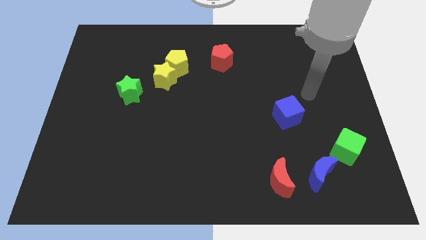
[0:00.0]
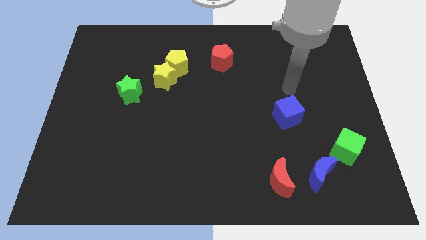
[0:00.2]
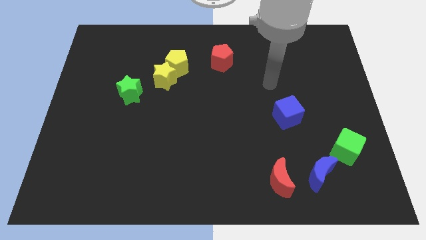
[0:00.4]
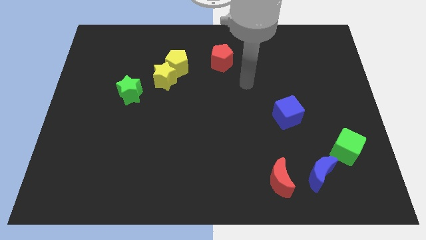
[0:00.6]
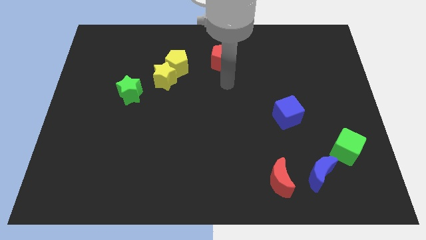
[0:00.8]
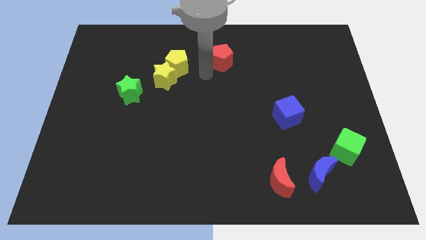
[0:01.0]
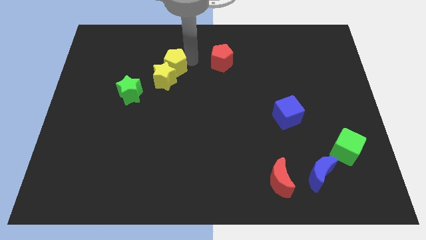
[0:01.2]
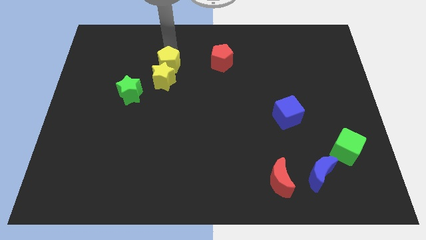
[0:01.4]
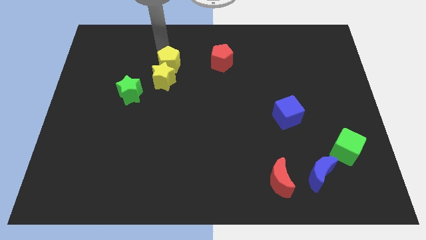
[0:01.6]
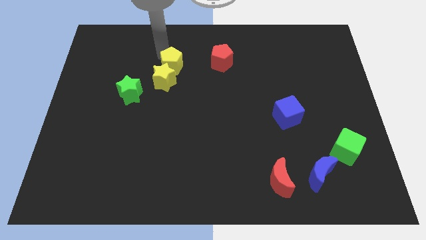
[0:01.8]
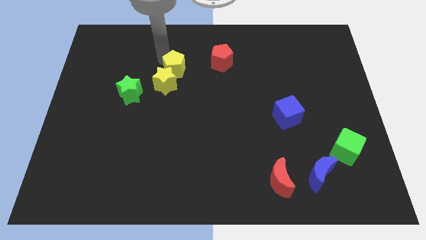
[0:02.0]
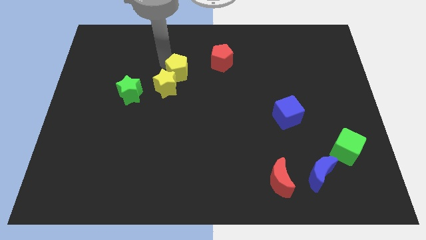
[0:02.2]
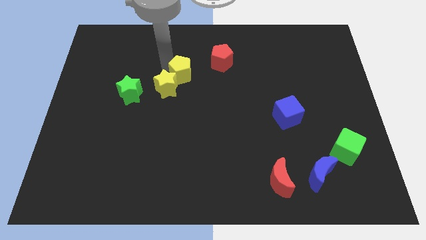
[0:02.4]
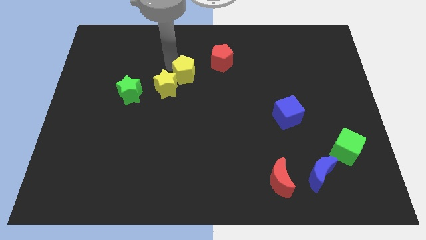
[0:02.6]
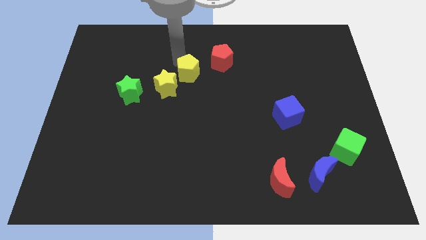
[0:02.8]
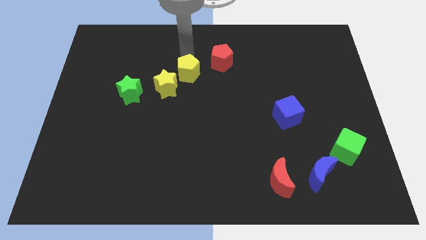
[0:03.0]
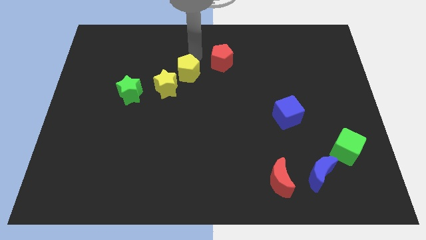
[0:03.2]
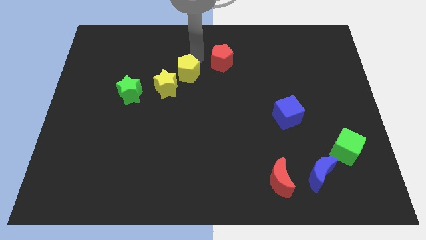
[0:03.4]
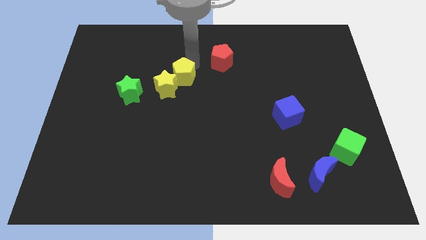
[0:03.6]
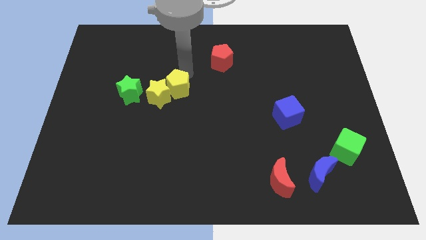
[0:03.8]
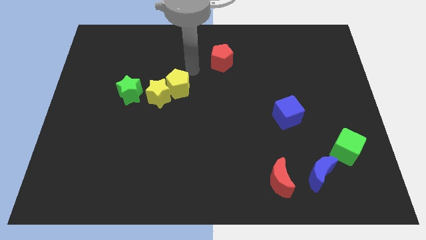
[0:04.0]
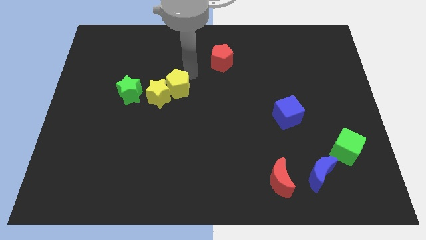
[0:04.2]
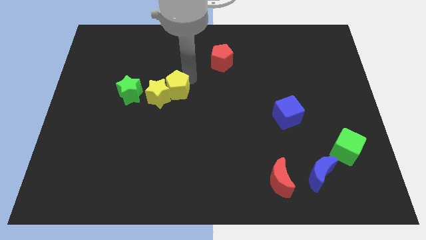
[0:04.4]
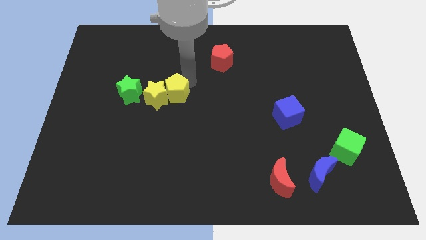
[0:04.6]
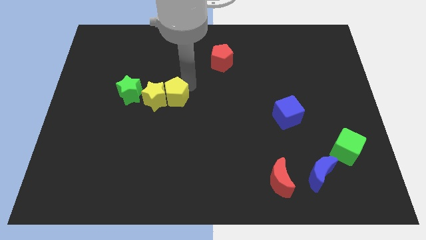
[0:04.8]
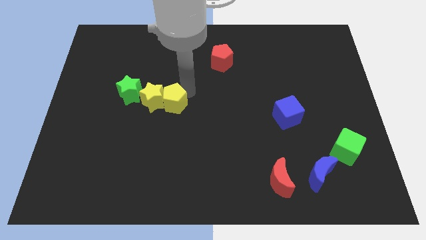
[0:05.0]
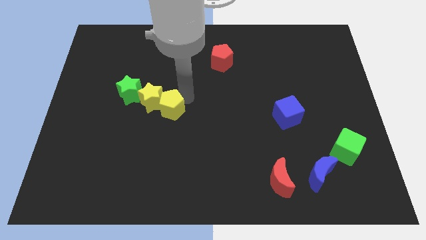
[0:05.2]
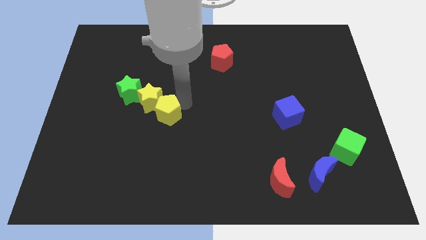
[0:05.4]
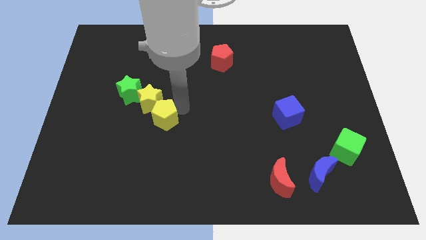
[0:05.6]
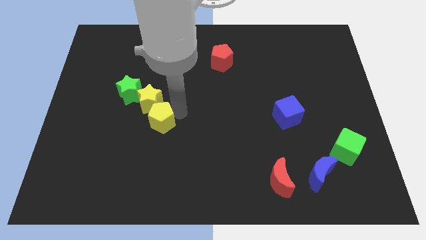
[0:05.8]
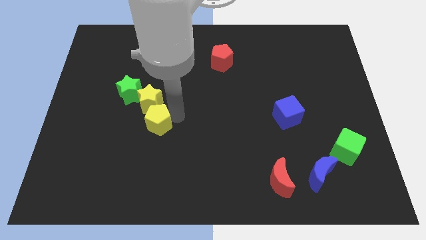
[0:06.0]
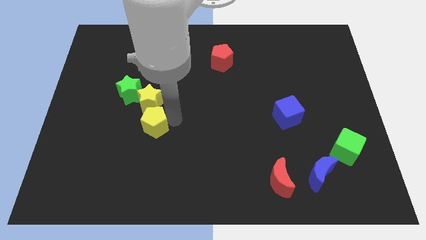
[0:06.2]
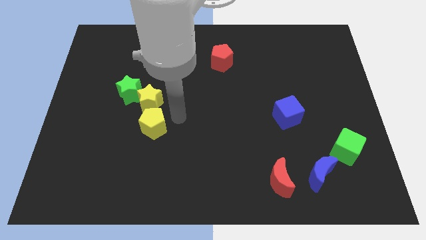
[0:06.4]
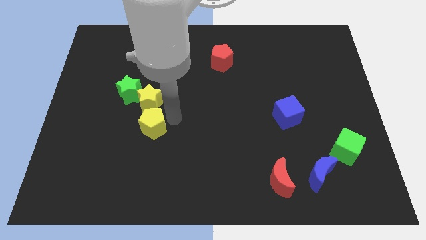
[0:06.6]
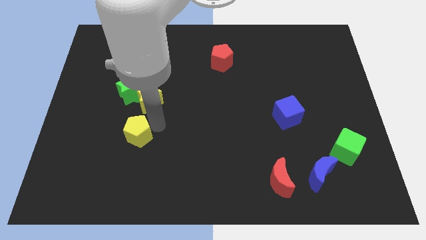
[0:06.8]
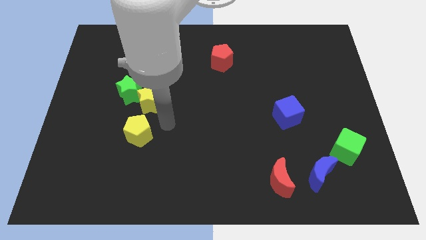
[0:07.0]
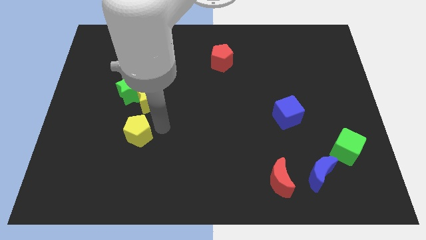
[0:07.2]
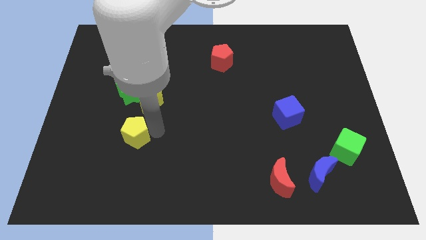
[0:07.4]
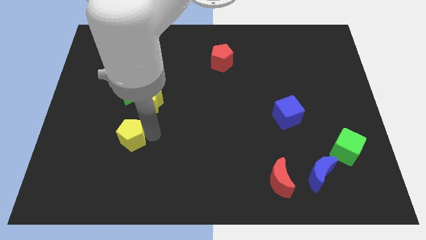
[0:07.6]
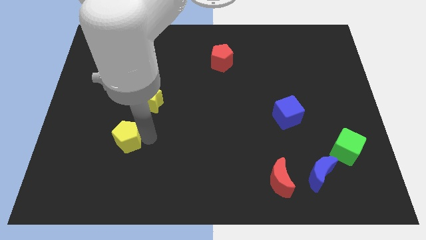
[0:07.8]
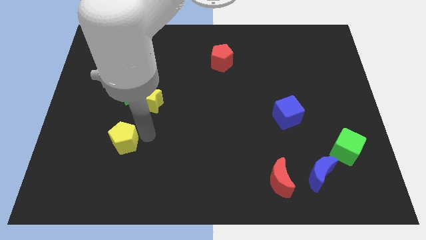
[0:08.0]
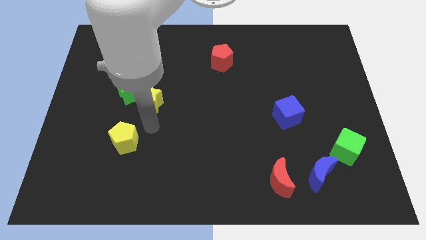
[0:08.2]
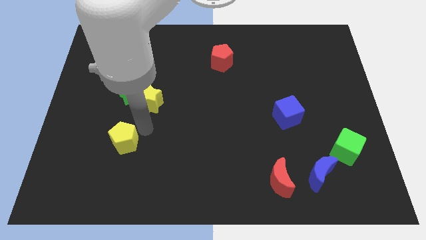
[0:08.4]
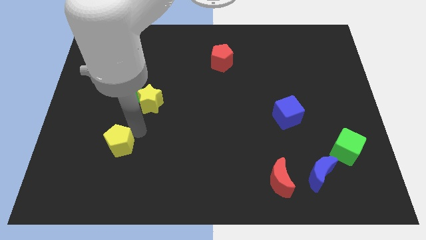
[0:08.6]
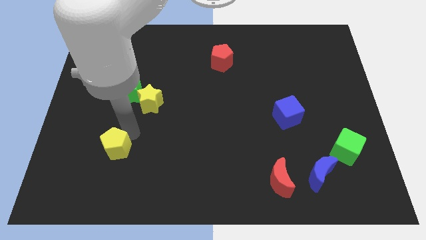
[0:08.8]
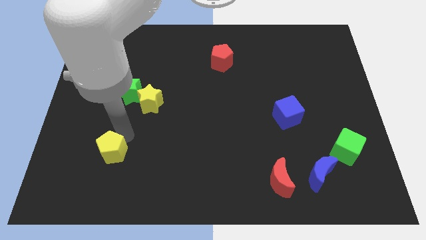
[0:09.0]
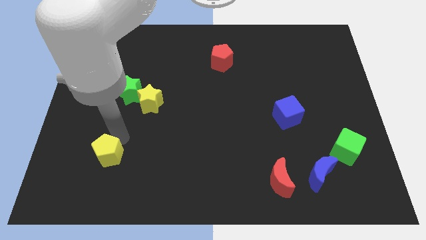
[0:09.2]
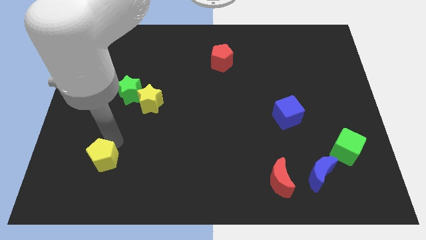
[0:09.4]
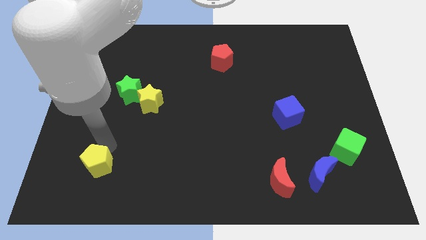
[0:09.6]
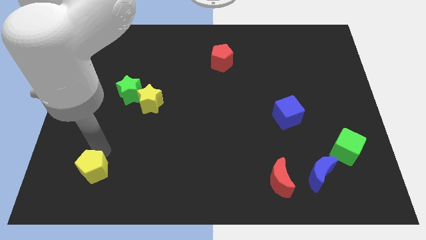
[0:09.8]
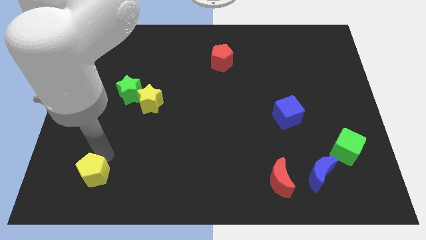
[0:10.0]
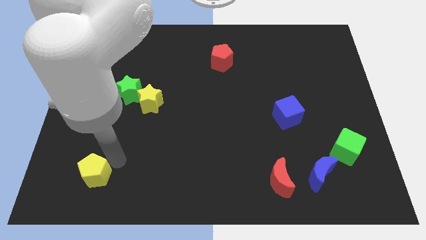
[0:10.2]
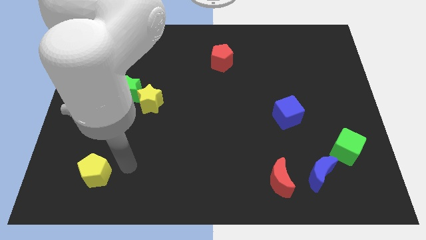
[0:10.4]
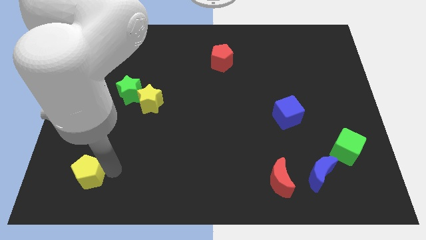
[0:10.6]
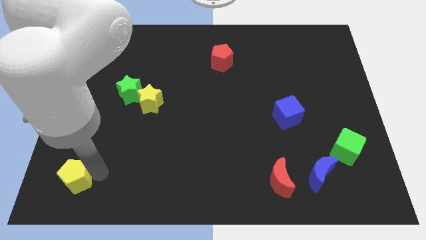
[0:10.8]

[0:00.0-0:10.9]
put the yellow pentagon to the bottom left of the board
